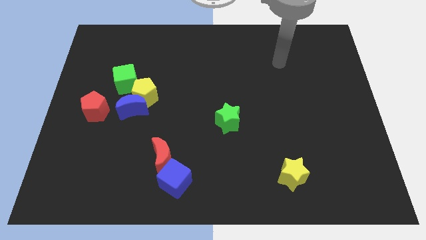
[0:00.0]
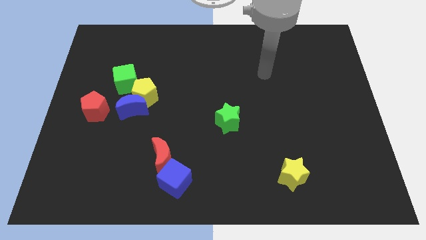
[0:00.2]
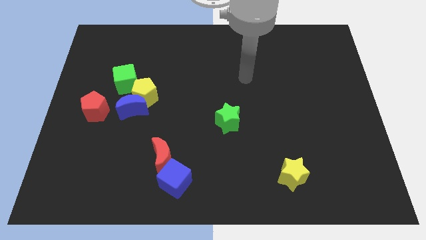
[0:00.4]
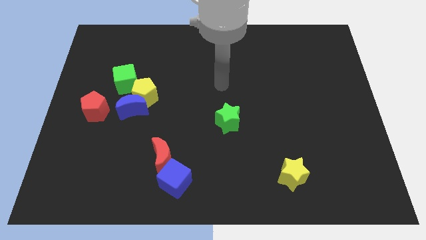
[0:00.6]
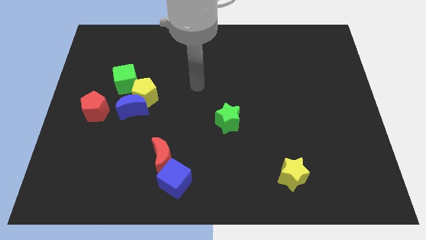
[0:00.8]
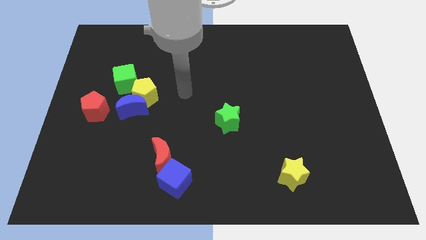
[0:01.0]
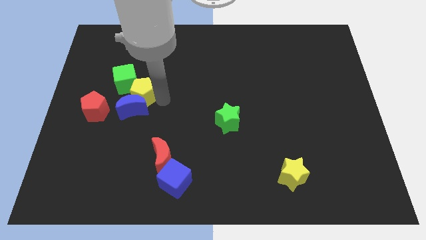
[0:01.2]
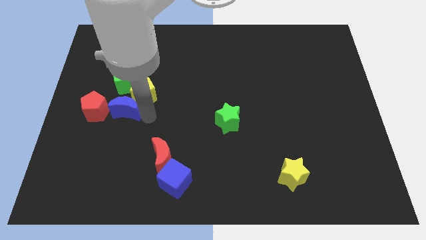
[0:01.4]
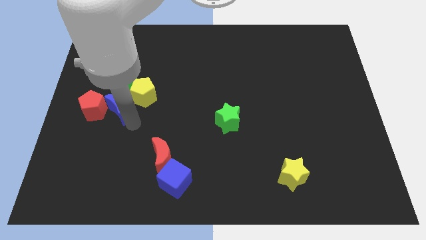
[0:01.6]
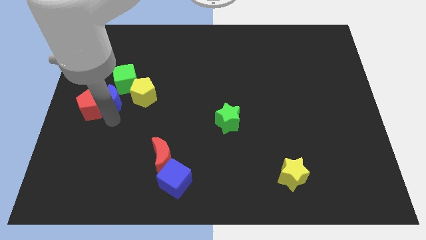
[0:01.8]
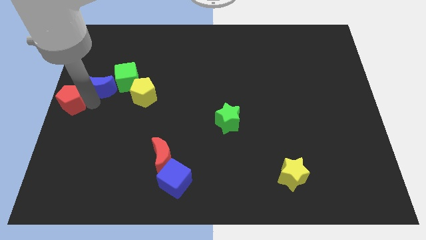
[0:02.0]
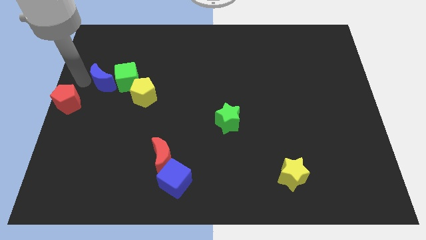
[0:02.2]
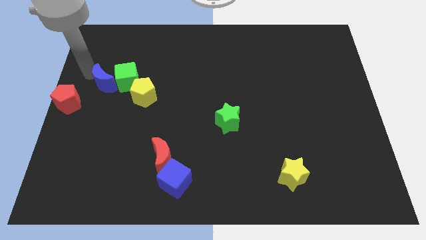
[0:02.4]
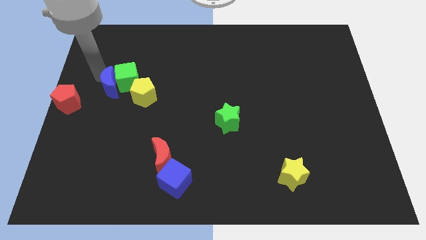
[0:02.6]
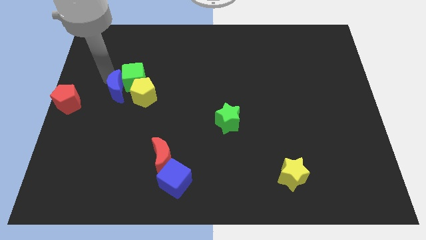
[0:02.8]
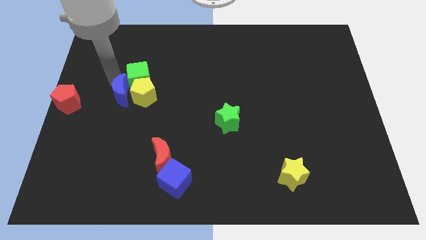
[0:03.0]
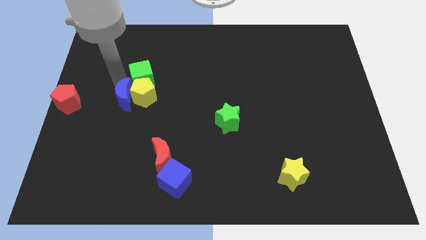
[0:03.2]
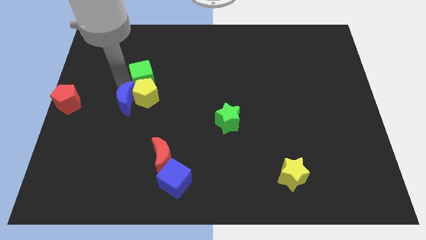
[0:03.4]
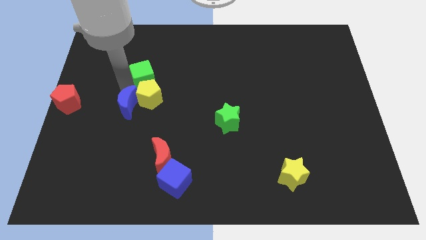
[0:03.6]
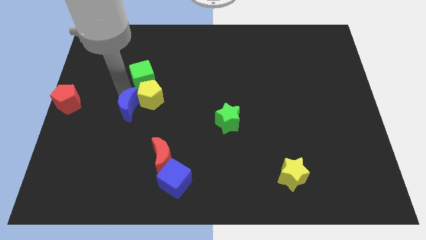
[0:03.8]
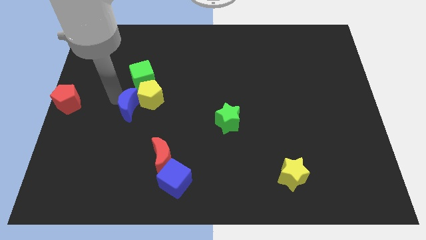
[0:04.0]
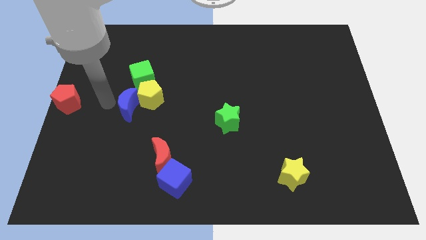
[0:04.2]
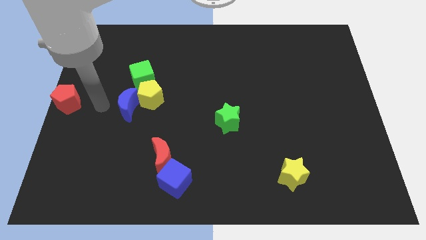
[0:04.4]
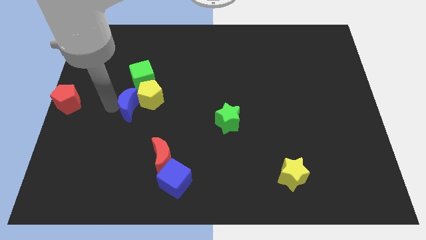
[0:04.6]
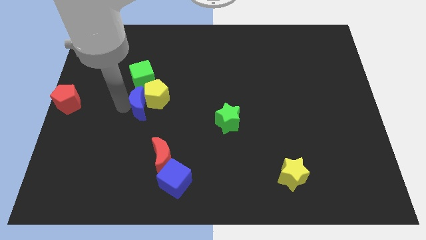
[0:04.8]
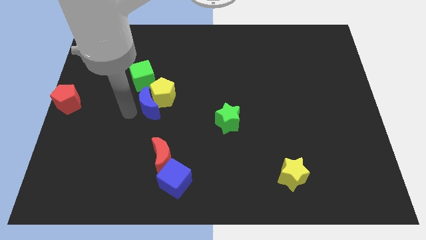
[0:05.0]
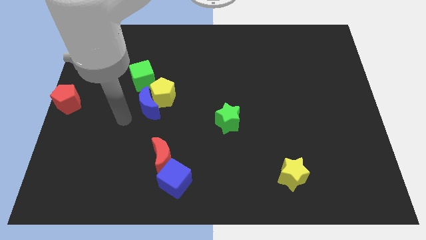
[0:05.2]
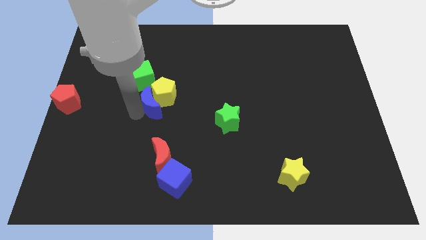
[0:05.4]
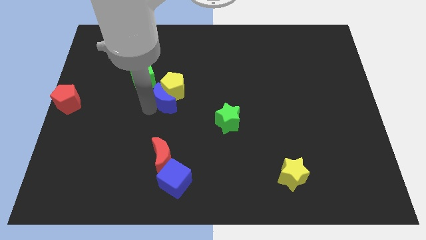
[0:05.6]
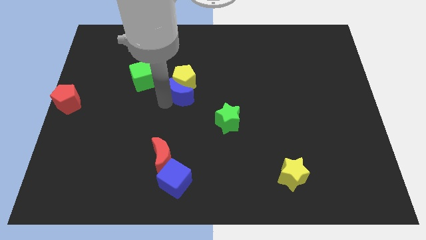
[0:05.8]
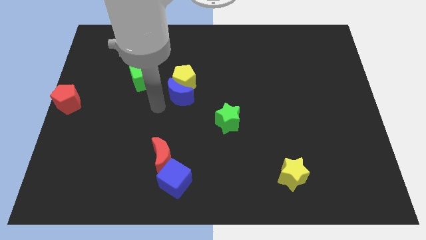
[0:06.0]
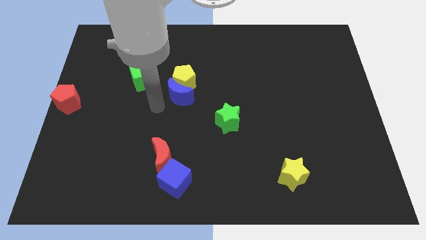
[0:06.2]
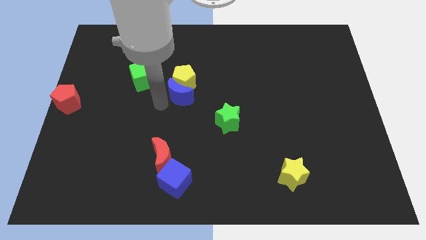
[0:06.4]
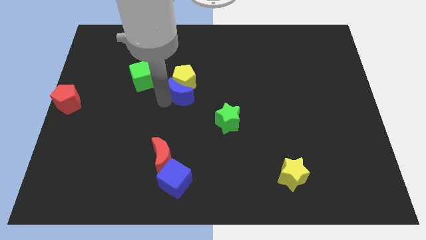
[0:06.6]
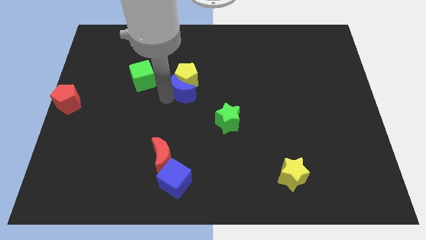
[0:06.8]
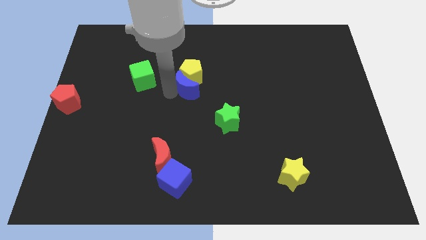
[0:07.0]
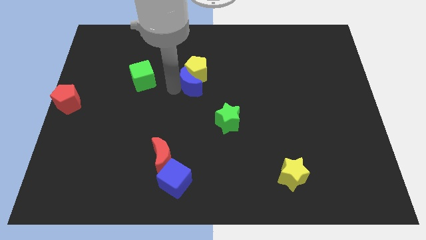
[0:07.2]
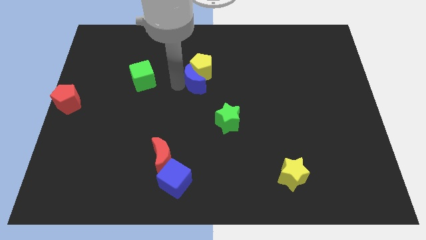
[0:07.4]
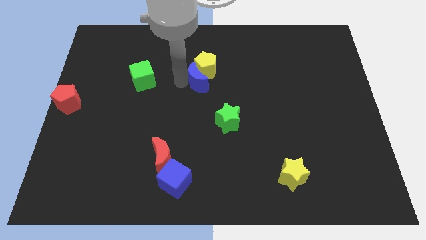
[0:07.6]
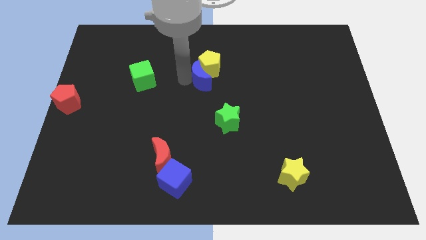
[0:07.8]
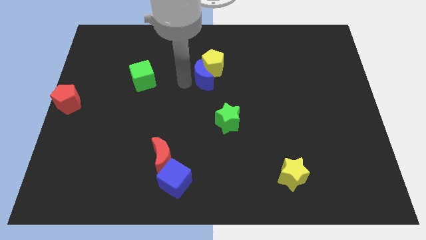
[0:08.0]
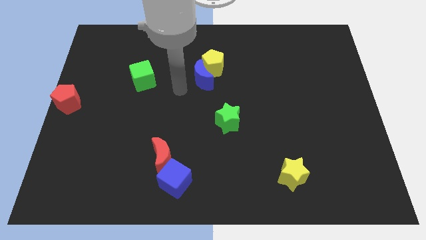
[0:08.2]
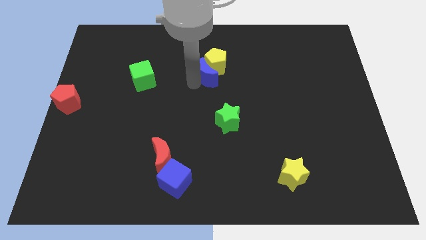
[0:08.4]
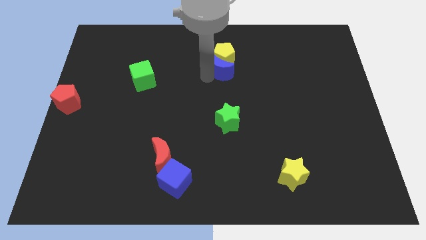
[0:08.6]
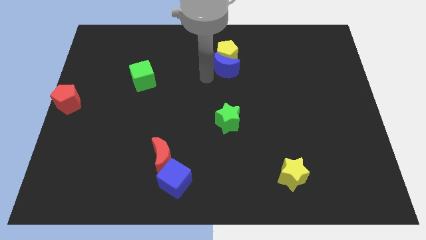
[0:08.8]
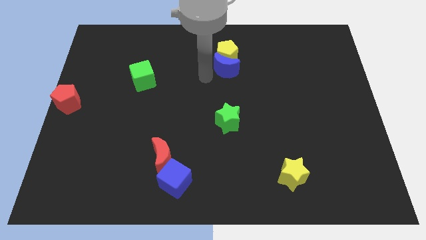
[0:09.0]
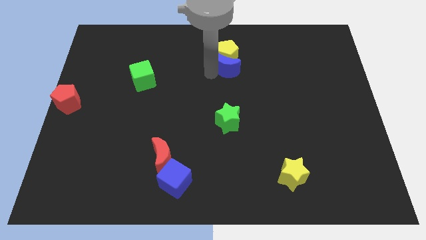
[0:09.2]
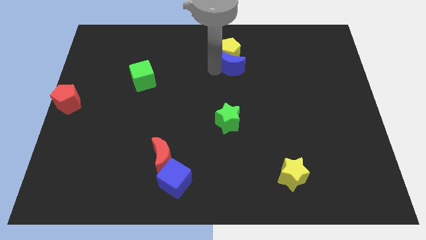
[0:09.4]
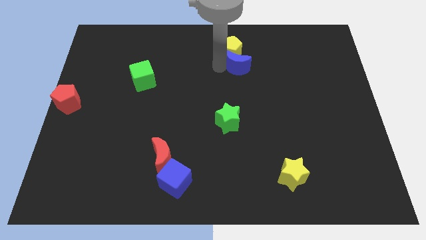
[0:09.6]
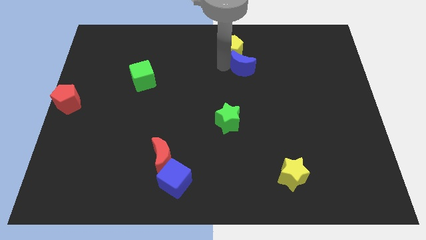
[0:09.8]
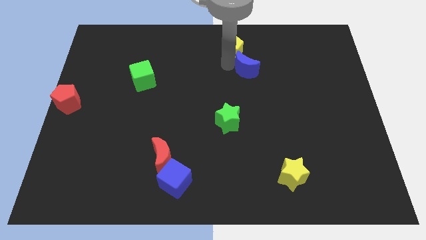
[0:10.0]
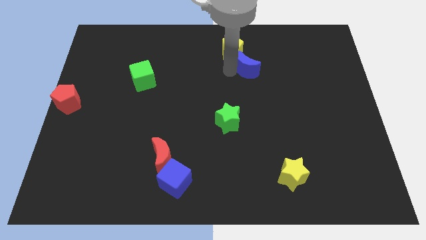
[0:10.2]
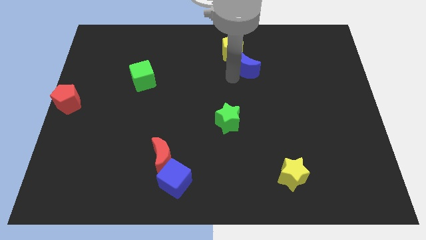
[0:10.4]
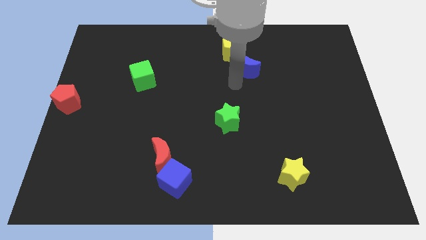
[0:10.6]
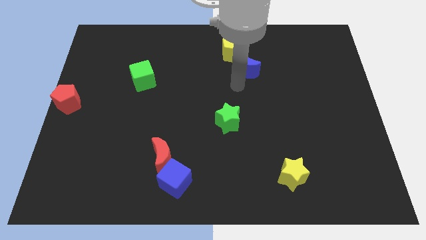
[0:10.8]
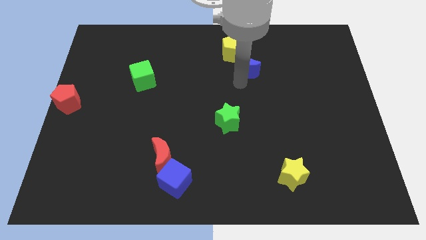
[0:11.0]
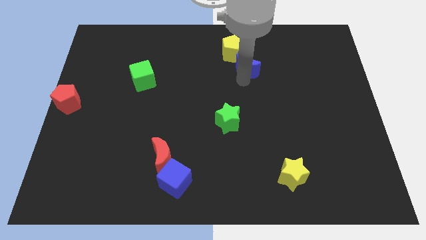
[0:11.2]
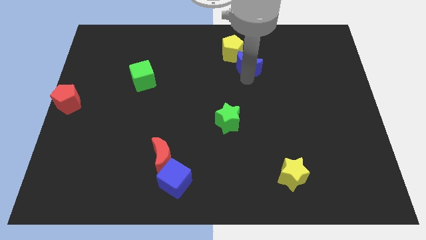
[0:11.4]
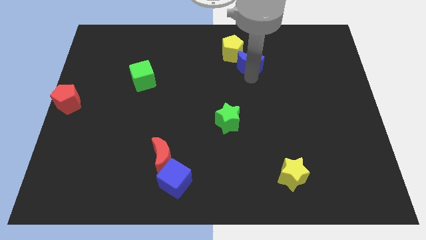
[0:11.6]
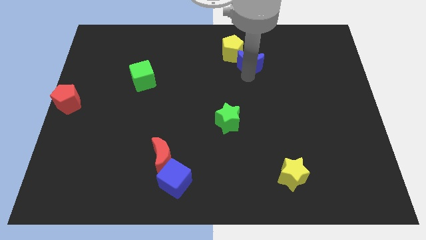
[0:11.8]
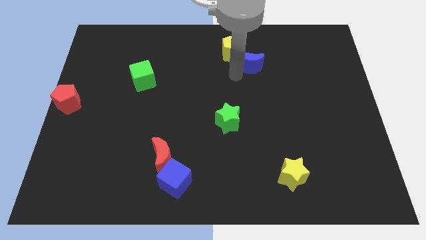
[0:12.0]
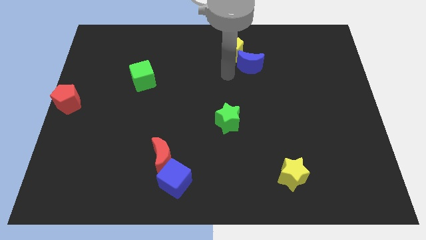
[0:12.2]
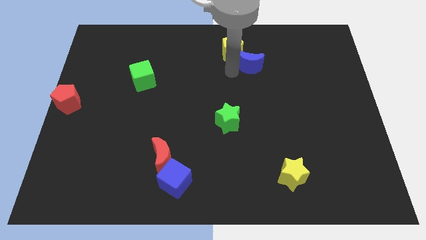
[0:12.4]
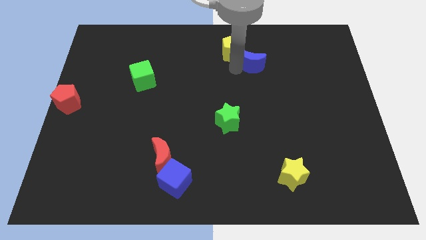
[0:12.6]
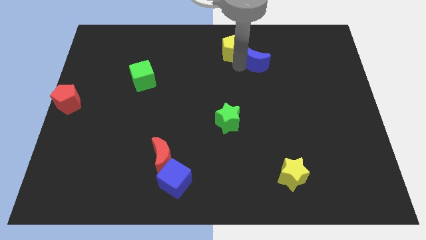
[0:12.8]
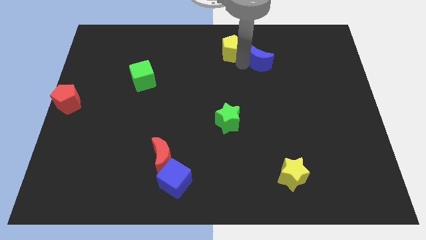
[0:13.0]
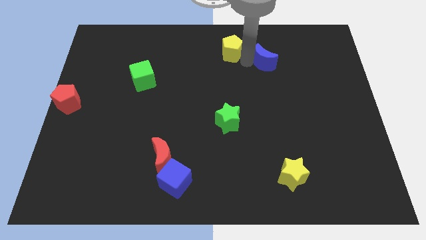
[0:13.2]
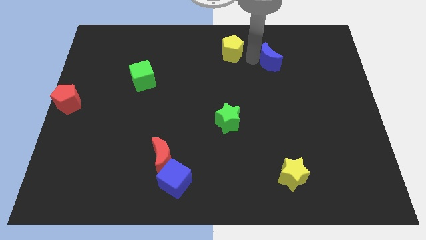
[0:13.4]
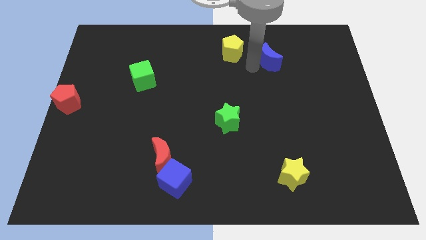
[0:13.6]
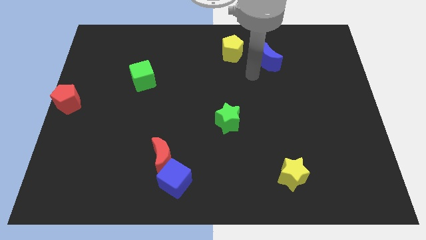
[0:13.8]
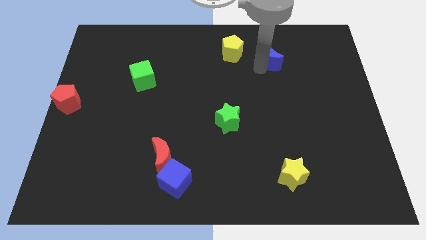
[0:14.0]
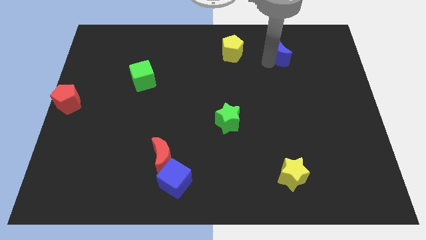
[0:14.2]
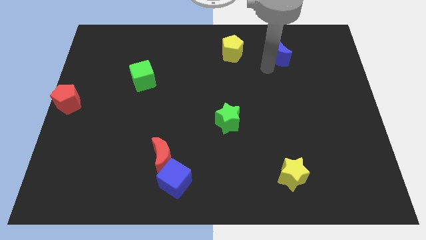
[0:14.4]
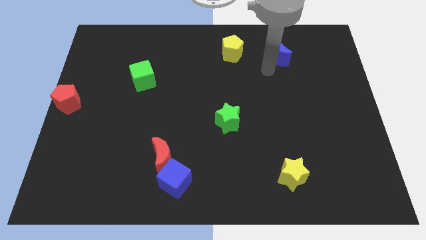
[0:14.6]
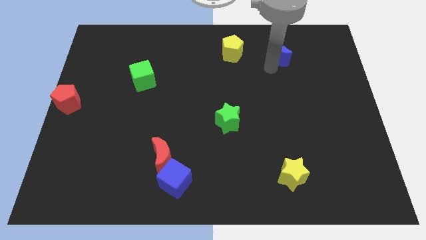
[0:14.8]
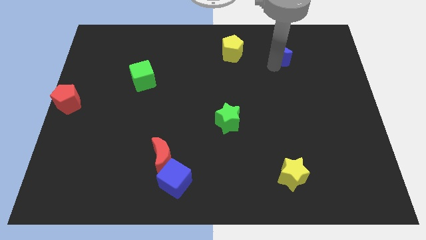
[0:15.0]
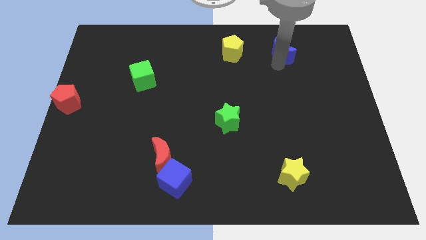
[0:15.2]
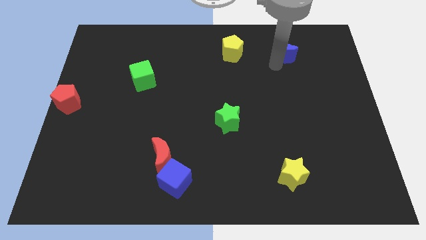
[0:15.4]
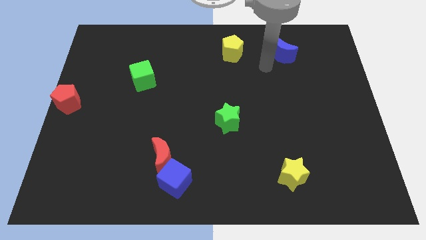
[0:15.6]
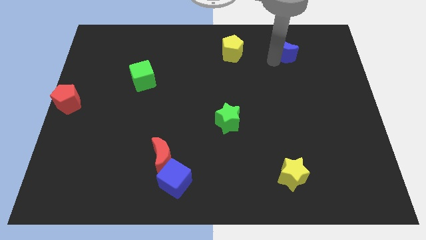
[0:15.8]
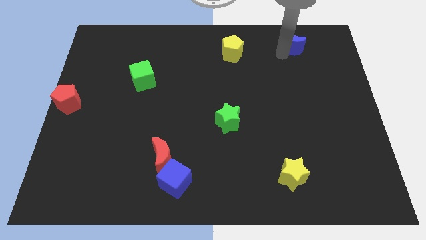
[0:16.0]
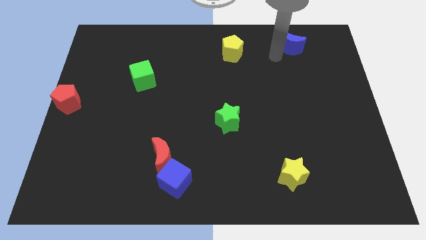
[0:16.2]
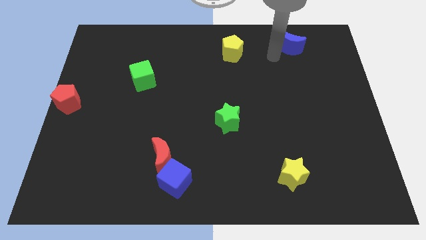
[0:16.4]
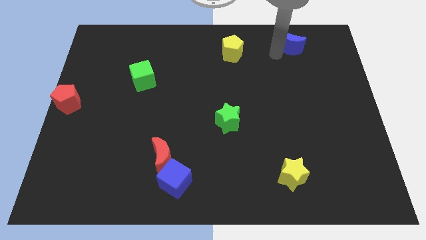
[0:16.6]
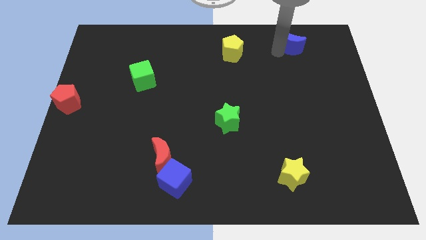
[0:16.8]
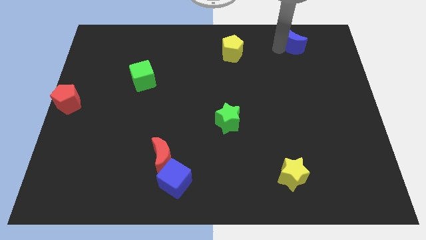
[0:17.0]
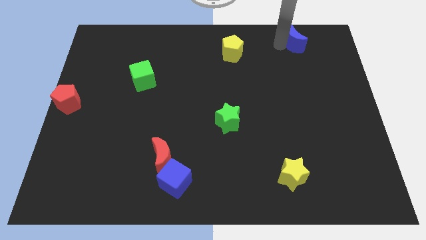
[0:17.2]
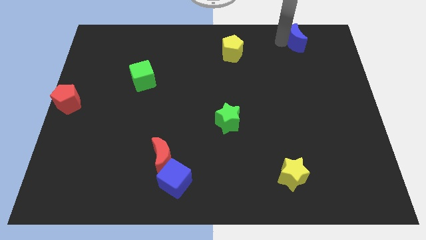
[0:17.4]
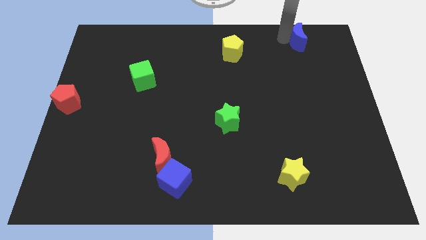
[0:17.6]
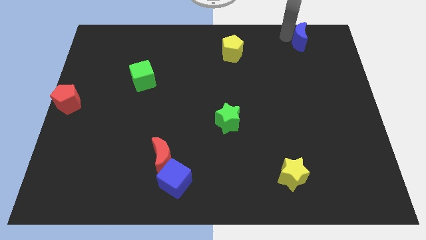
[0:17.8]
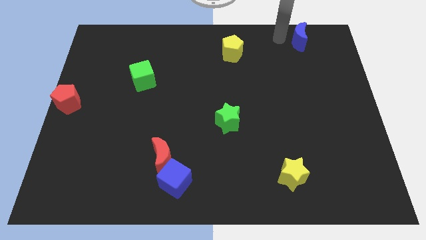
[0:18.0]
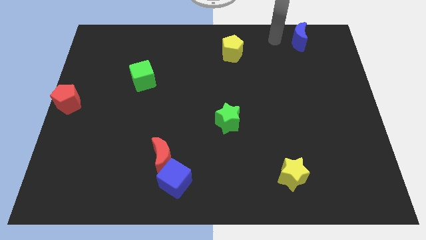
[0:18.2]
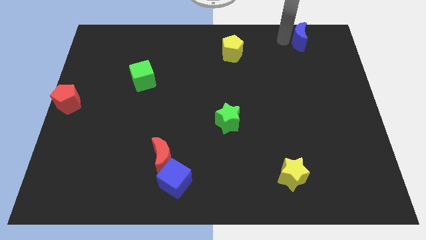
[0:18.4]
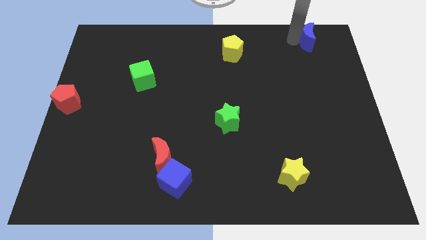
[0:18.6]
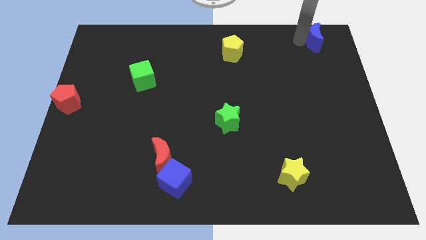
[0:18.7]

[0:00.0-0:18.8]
slide the blue moon to the top right of the board
